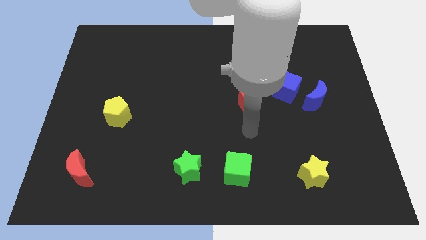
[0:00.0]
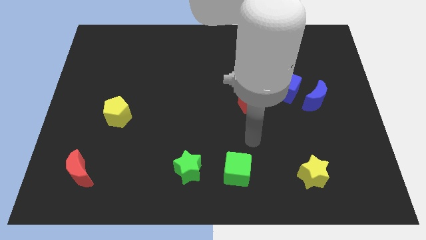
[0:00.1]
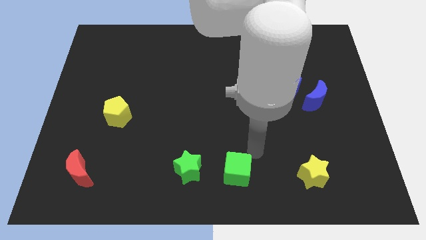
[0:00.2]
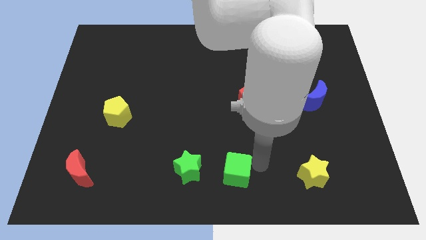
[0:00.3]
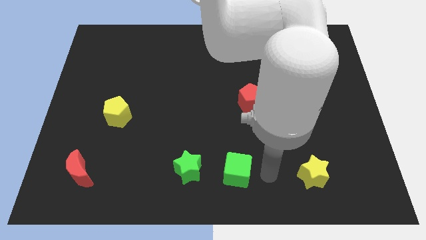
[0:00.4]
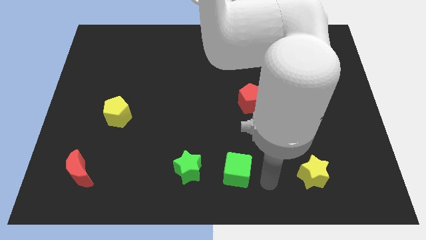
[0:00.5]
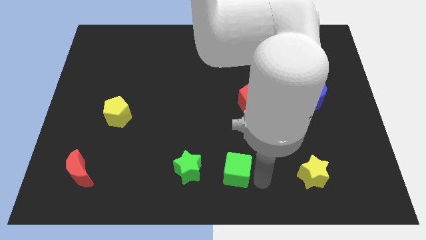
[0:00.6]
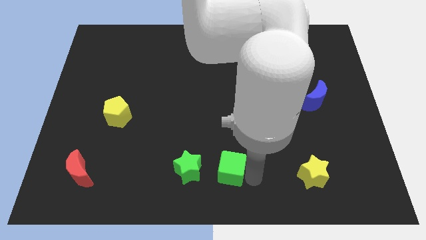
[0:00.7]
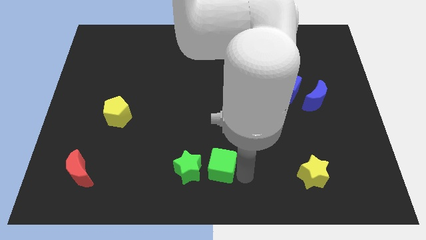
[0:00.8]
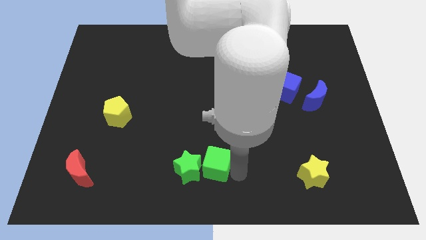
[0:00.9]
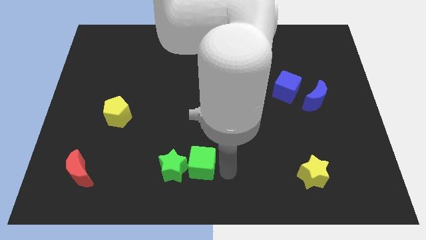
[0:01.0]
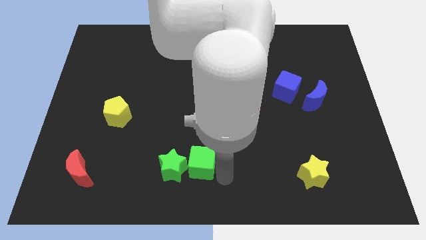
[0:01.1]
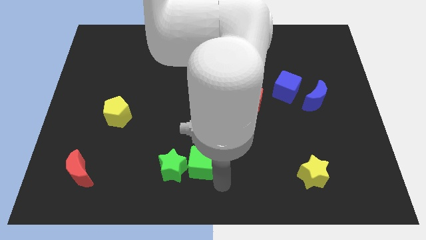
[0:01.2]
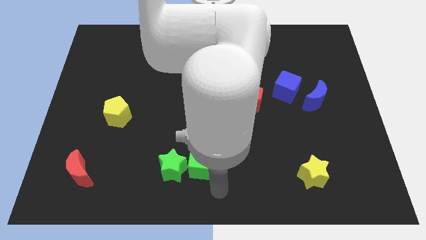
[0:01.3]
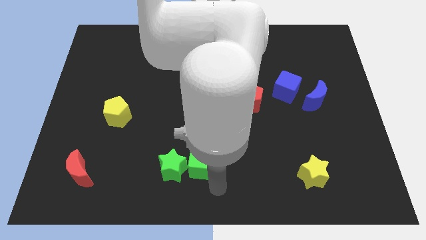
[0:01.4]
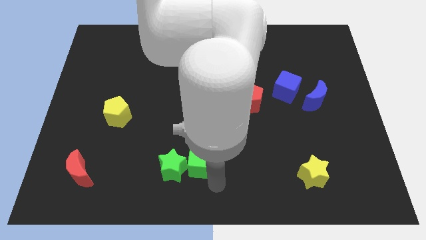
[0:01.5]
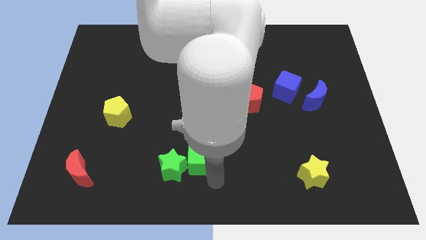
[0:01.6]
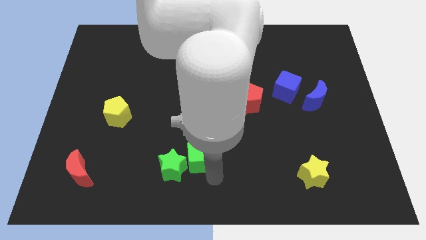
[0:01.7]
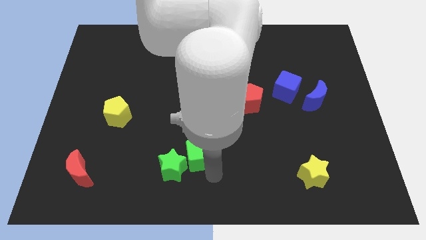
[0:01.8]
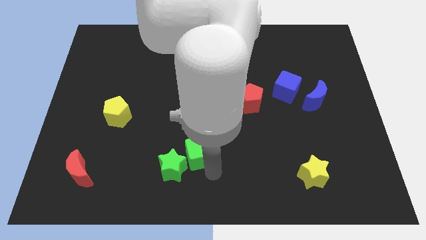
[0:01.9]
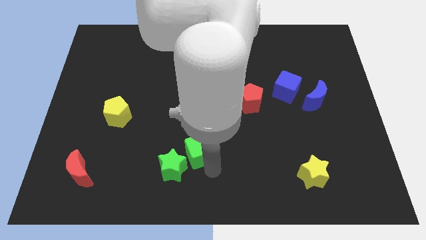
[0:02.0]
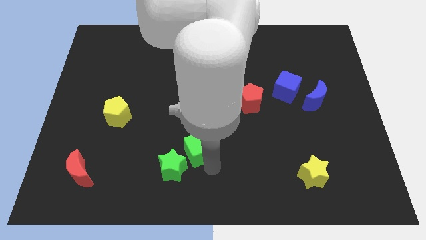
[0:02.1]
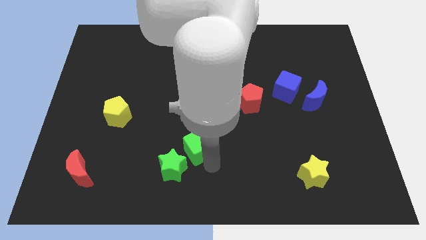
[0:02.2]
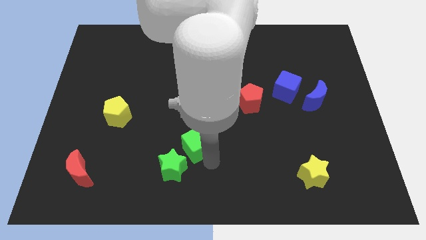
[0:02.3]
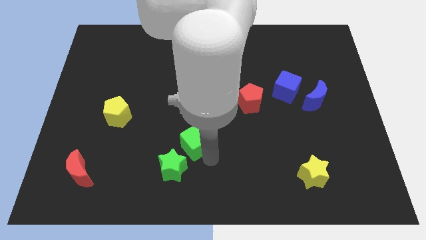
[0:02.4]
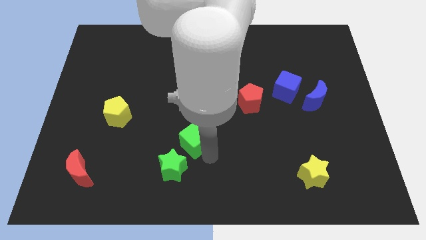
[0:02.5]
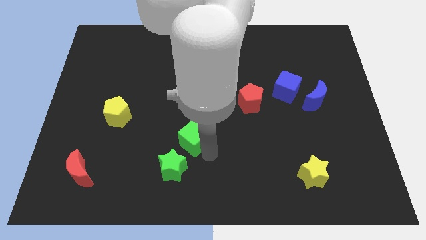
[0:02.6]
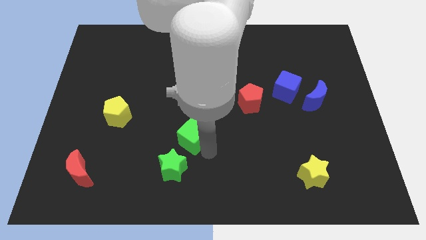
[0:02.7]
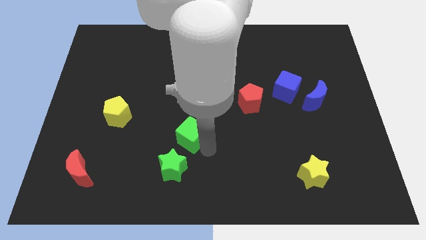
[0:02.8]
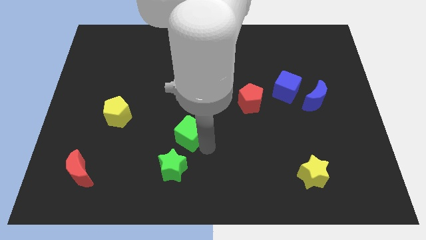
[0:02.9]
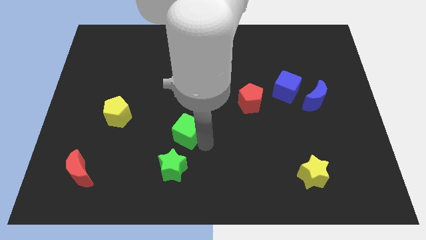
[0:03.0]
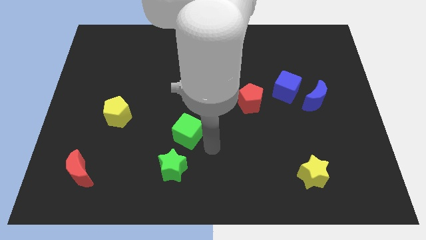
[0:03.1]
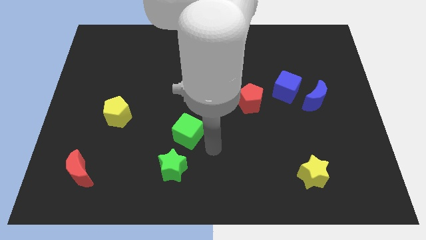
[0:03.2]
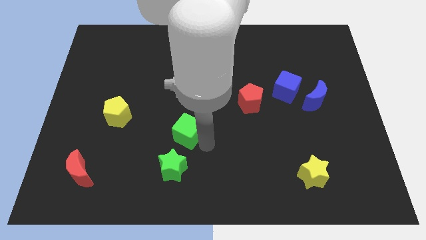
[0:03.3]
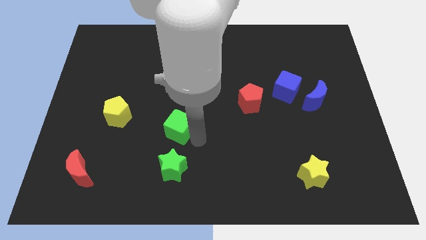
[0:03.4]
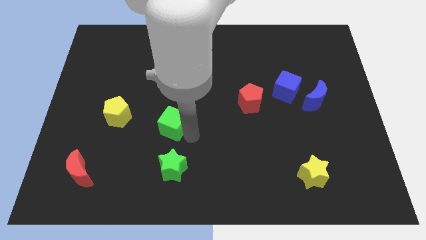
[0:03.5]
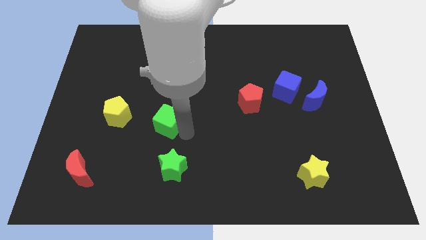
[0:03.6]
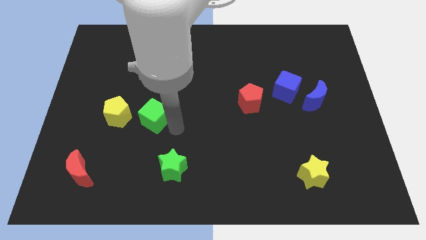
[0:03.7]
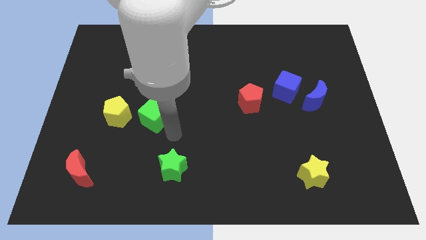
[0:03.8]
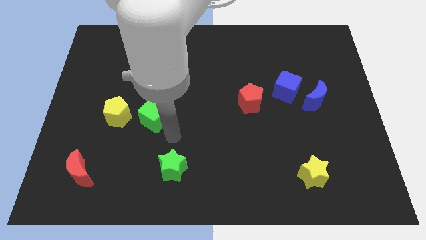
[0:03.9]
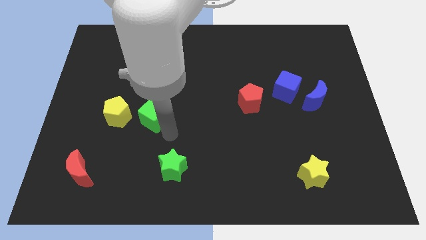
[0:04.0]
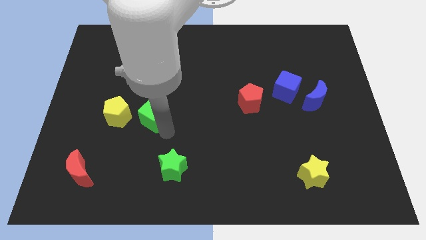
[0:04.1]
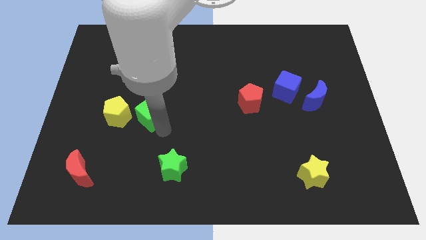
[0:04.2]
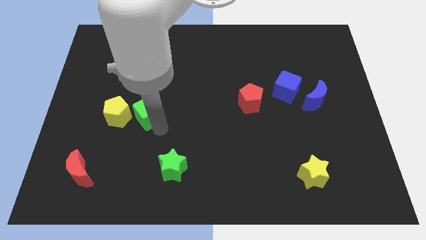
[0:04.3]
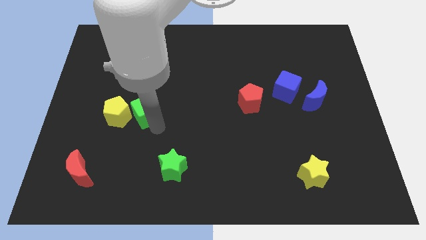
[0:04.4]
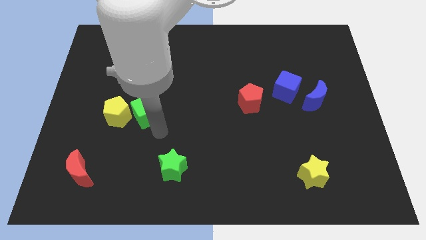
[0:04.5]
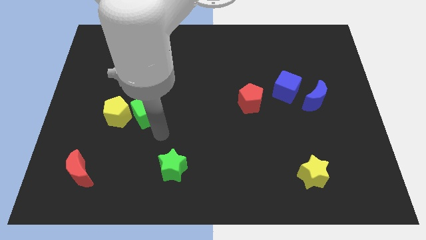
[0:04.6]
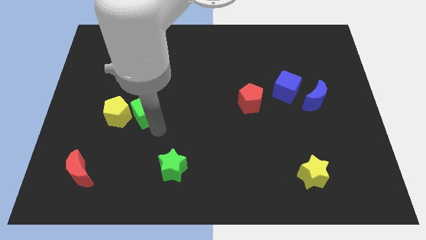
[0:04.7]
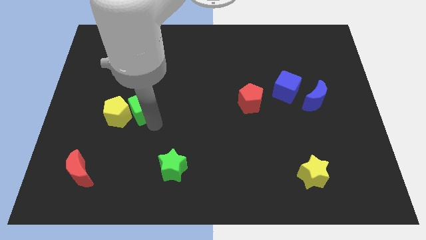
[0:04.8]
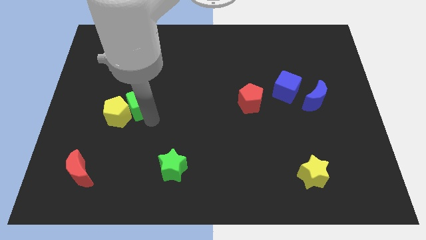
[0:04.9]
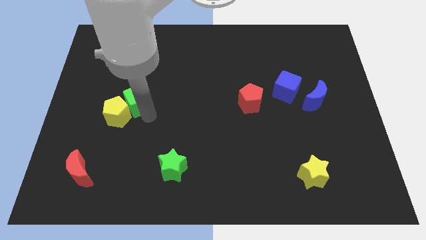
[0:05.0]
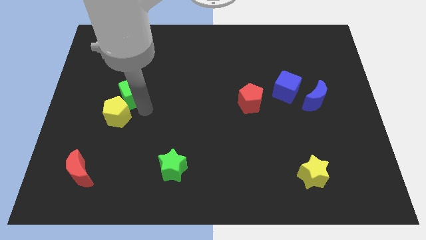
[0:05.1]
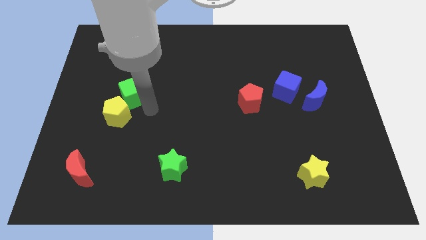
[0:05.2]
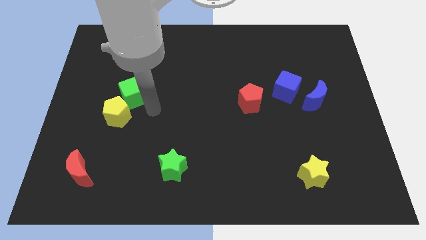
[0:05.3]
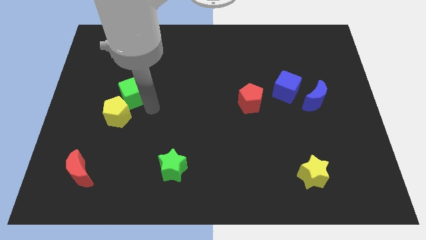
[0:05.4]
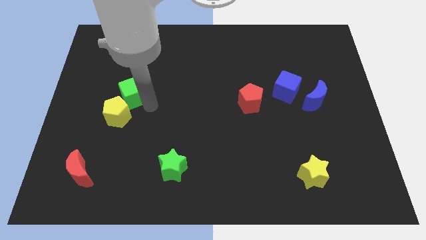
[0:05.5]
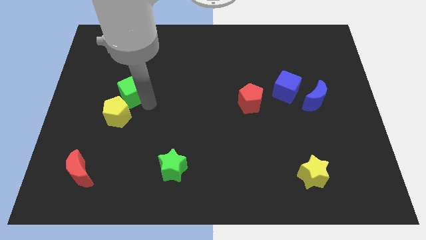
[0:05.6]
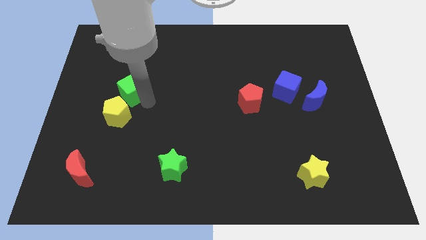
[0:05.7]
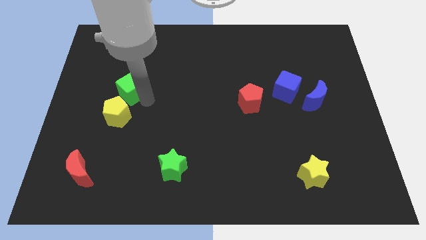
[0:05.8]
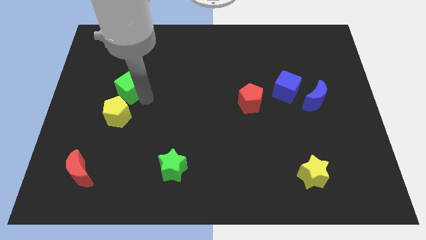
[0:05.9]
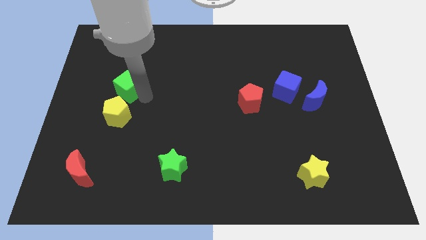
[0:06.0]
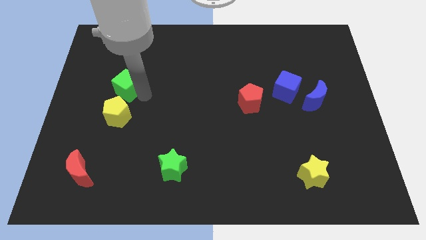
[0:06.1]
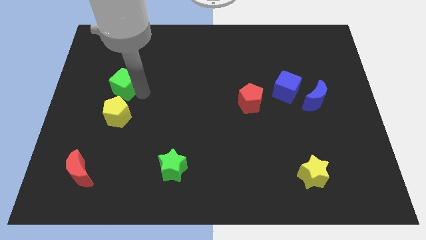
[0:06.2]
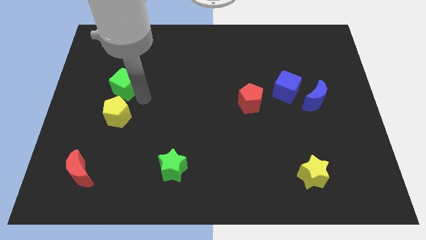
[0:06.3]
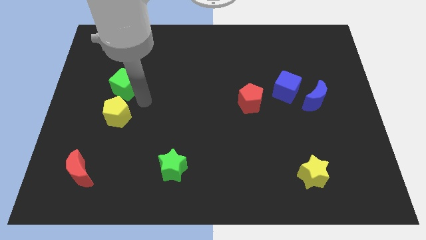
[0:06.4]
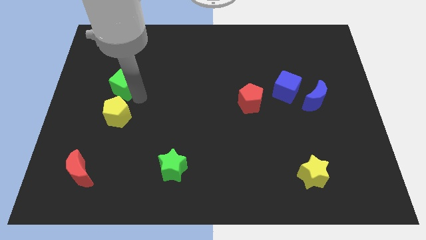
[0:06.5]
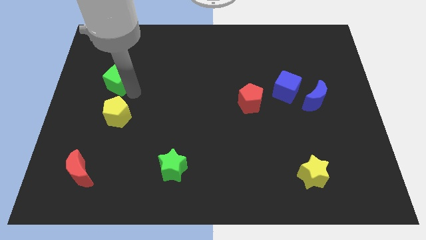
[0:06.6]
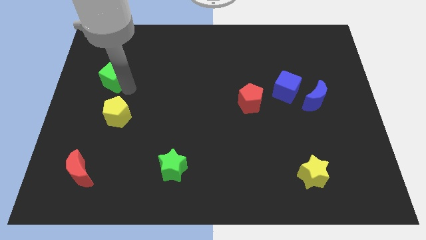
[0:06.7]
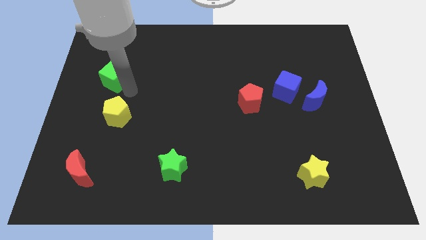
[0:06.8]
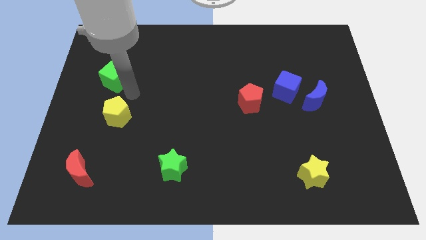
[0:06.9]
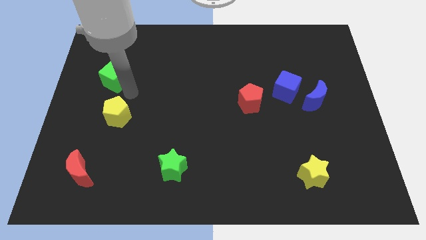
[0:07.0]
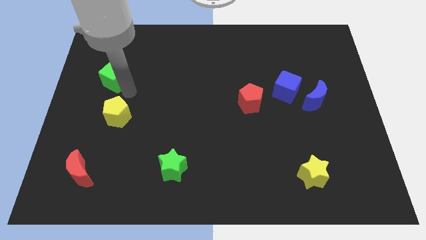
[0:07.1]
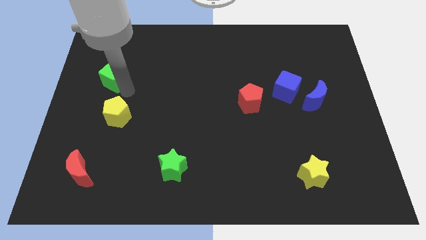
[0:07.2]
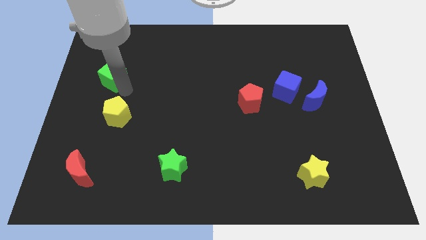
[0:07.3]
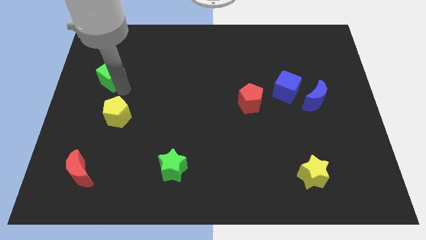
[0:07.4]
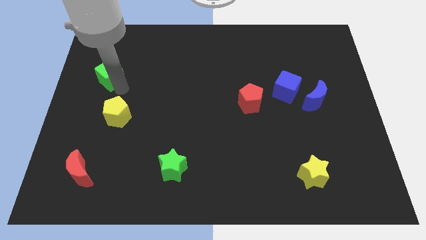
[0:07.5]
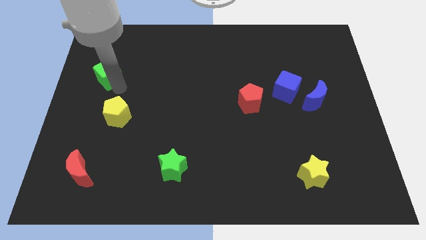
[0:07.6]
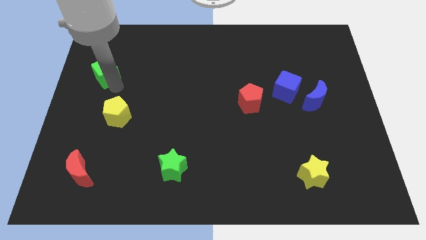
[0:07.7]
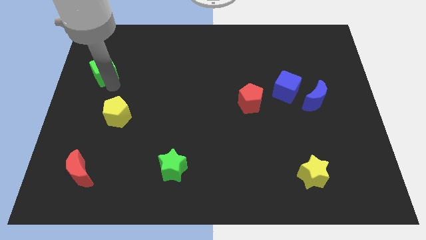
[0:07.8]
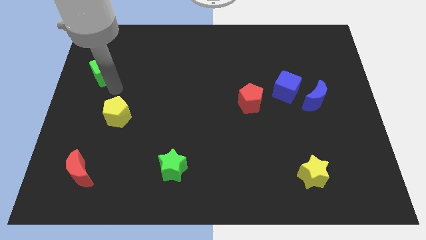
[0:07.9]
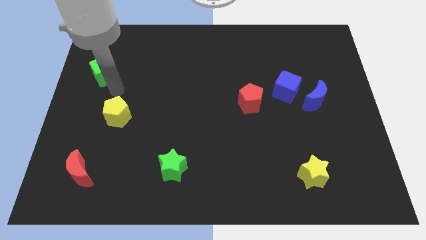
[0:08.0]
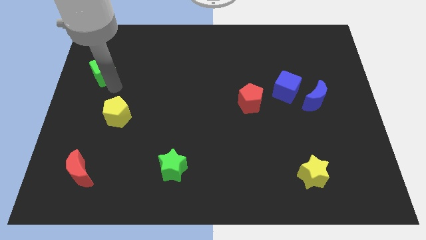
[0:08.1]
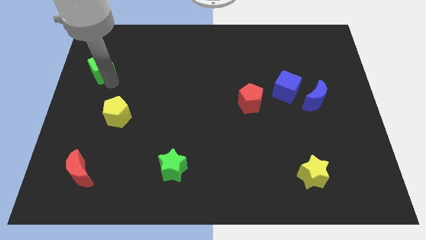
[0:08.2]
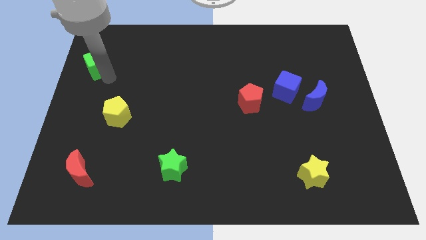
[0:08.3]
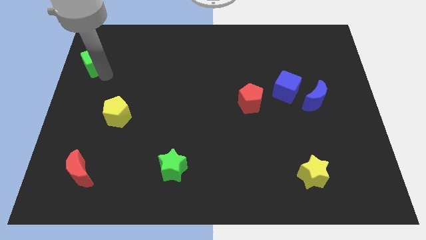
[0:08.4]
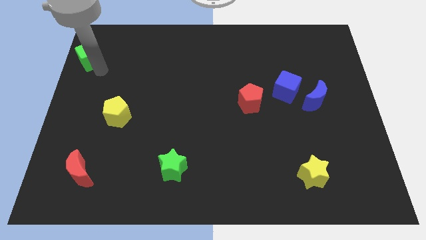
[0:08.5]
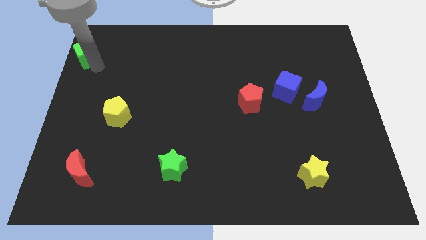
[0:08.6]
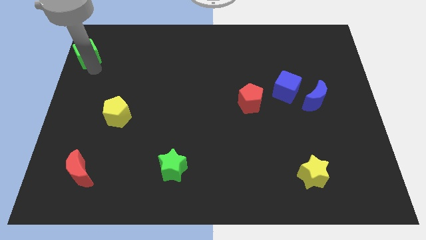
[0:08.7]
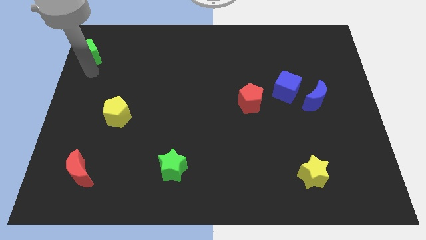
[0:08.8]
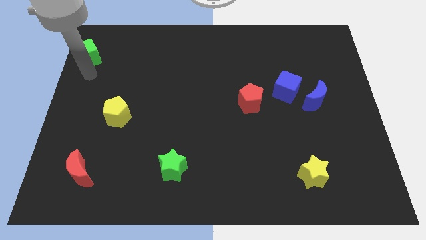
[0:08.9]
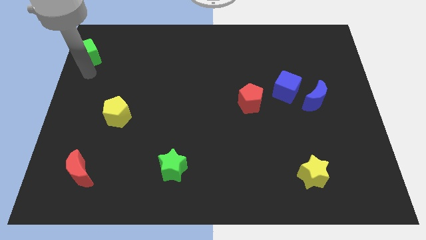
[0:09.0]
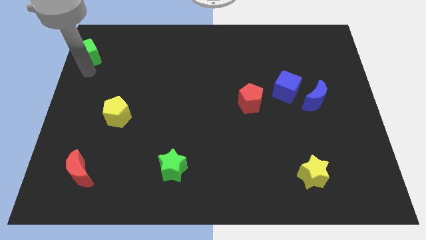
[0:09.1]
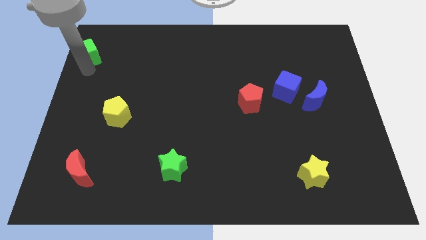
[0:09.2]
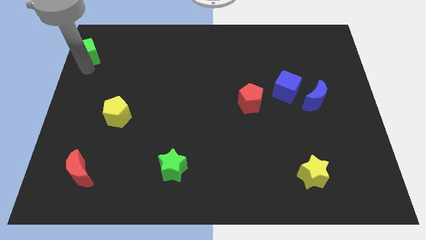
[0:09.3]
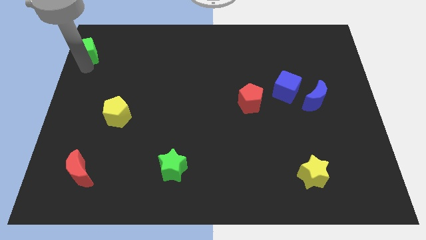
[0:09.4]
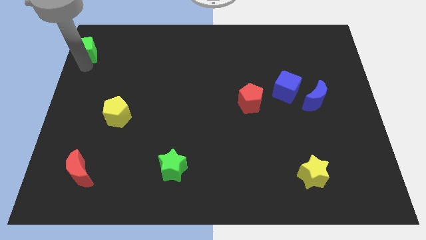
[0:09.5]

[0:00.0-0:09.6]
slide the green cube to the top left corner
